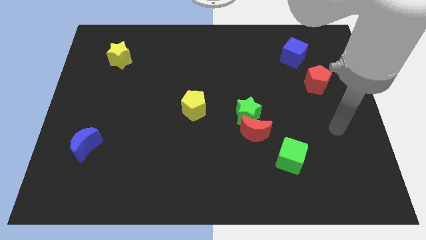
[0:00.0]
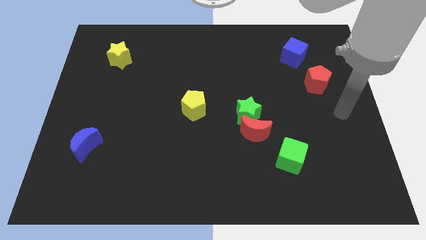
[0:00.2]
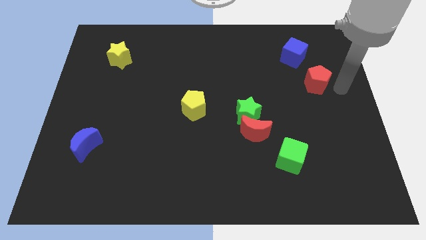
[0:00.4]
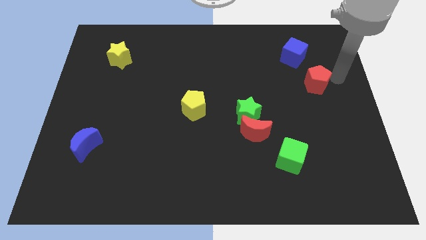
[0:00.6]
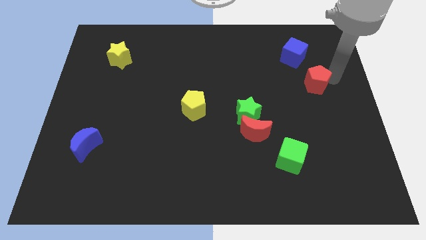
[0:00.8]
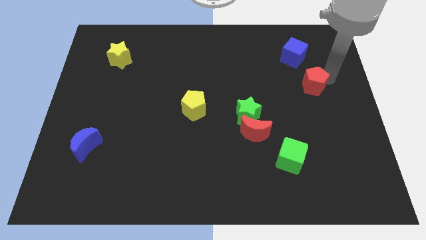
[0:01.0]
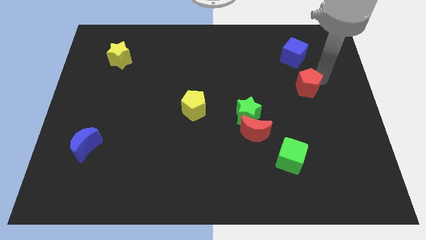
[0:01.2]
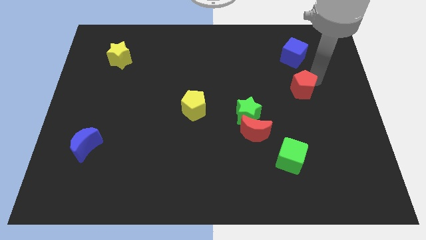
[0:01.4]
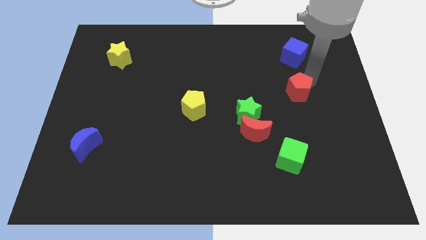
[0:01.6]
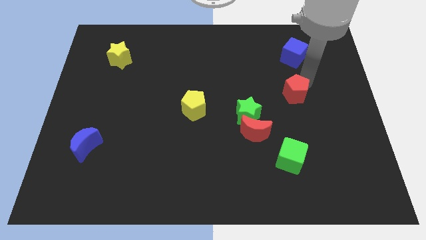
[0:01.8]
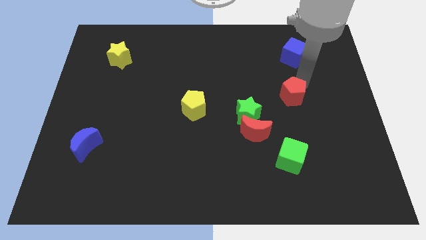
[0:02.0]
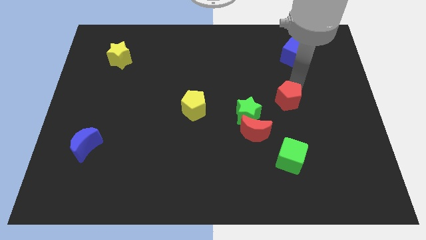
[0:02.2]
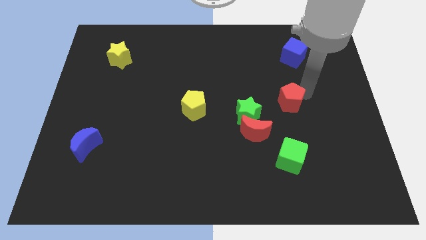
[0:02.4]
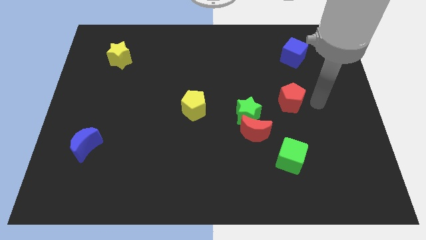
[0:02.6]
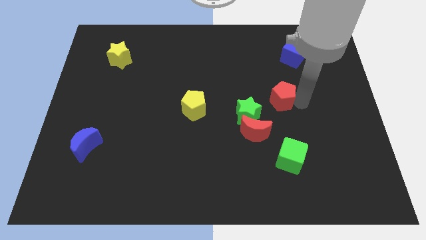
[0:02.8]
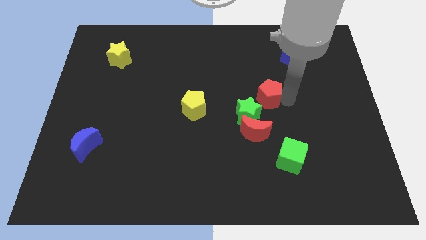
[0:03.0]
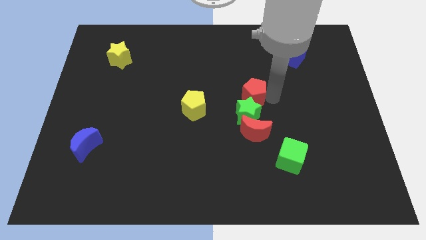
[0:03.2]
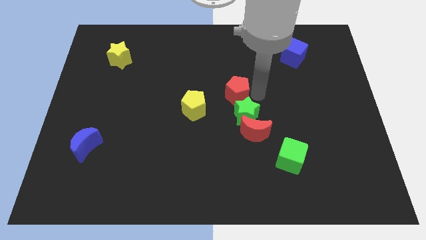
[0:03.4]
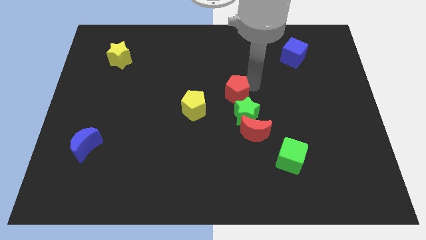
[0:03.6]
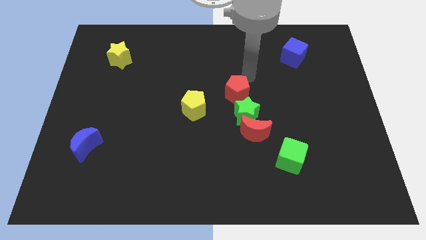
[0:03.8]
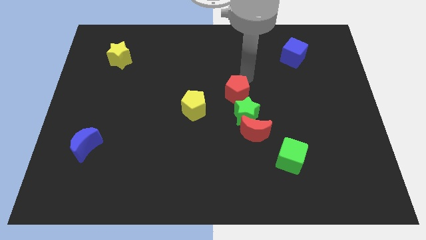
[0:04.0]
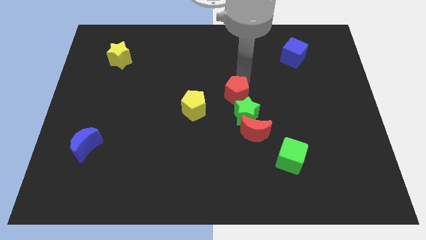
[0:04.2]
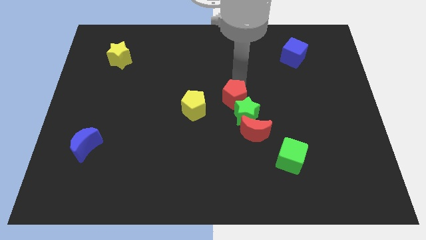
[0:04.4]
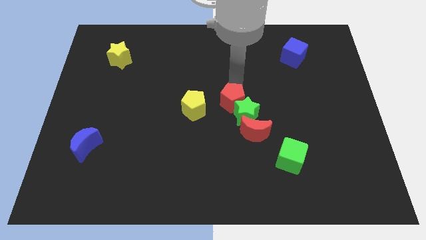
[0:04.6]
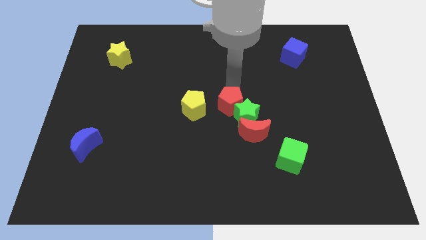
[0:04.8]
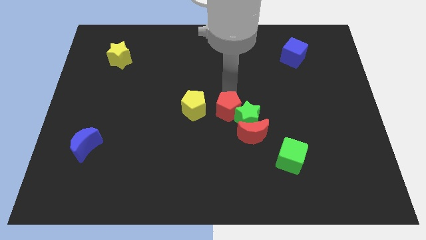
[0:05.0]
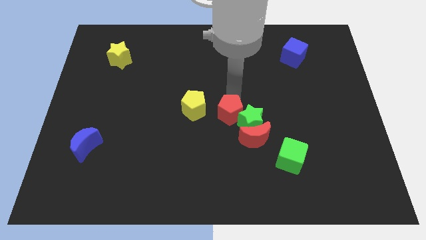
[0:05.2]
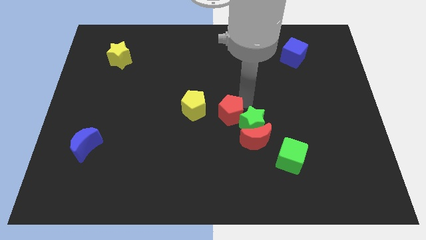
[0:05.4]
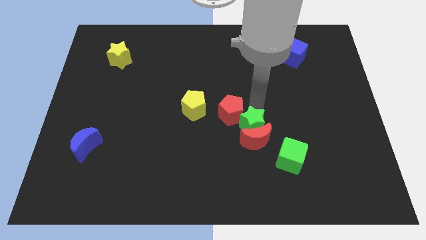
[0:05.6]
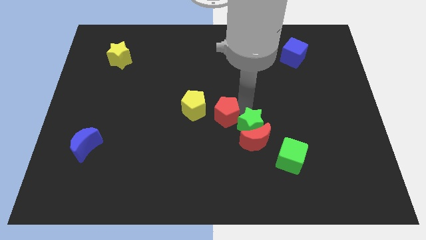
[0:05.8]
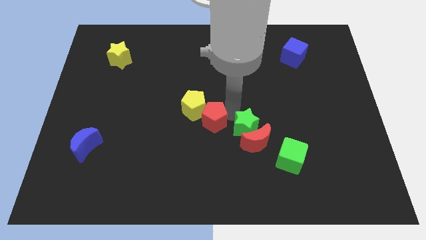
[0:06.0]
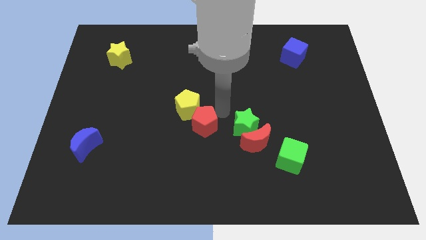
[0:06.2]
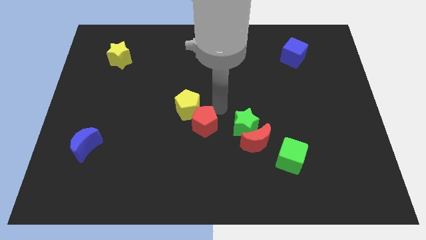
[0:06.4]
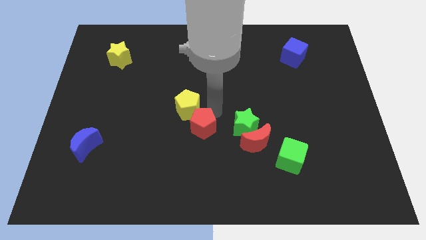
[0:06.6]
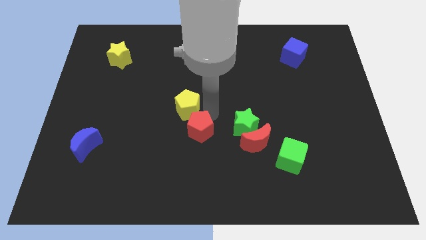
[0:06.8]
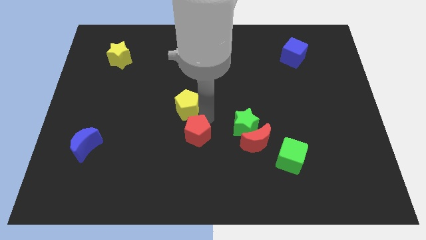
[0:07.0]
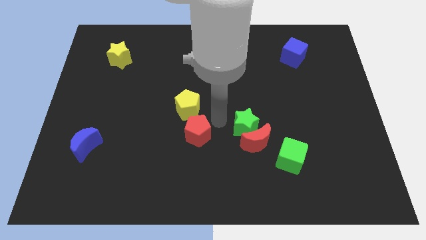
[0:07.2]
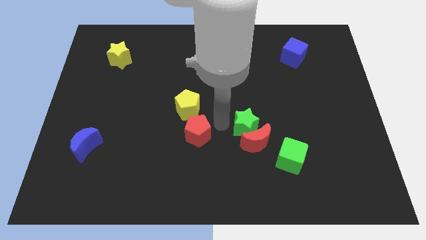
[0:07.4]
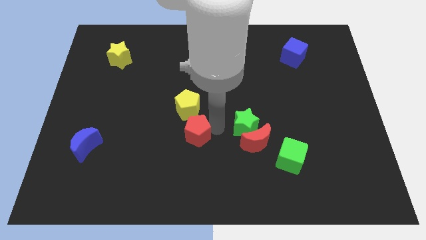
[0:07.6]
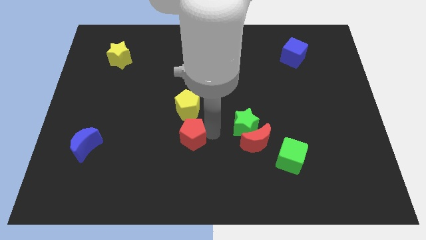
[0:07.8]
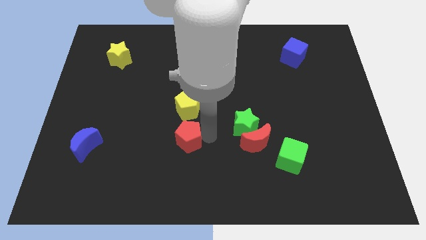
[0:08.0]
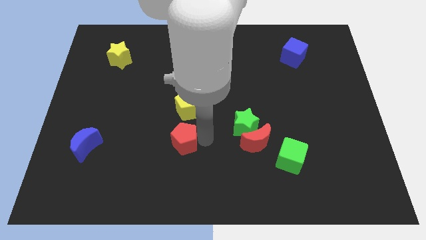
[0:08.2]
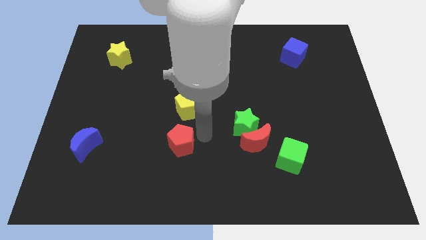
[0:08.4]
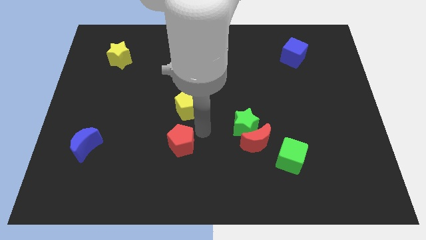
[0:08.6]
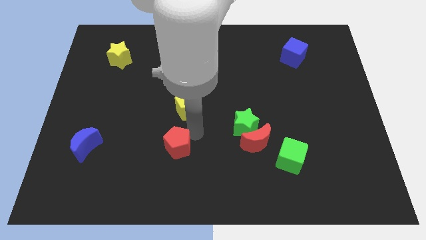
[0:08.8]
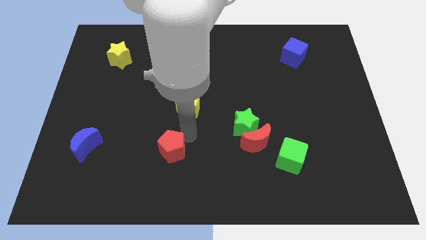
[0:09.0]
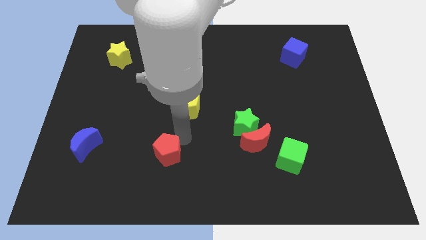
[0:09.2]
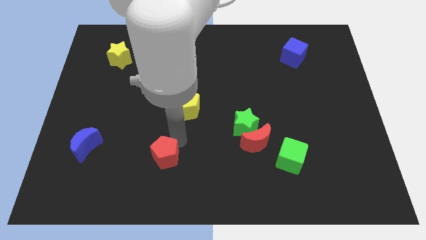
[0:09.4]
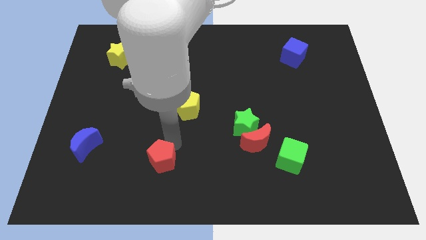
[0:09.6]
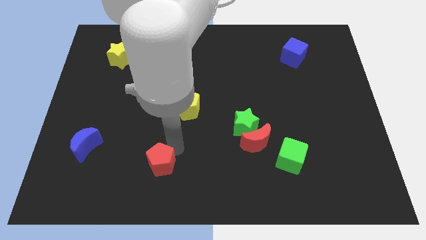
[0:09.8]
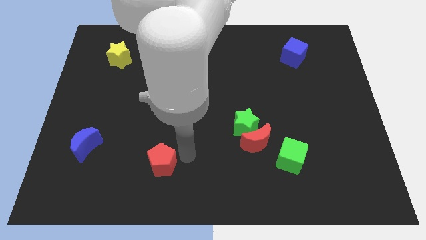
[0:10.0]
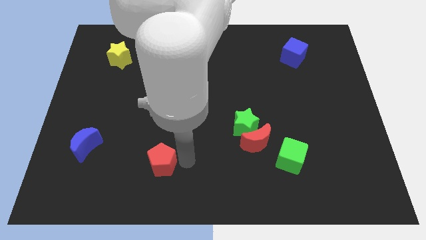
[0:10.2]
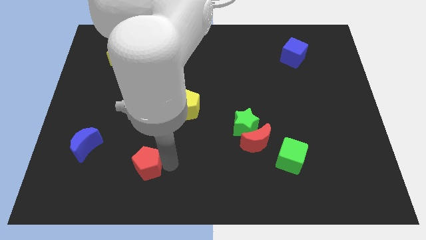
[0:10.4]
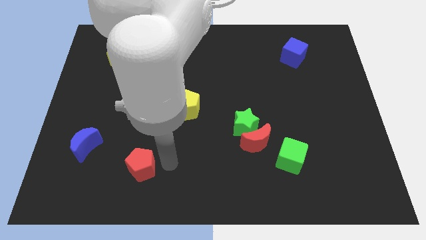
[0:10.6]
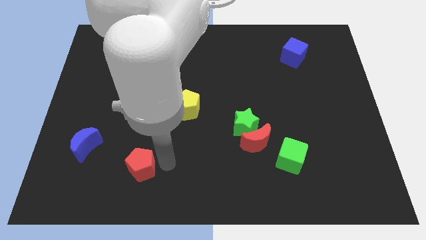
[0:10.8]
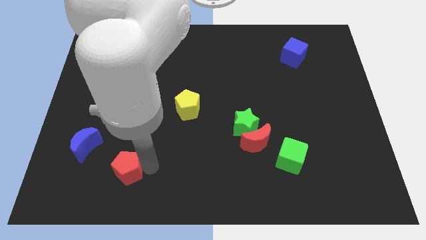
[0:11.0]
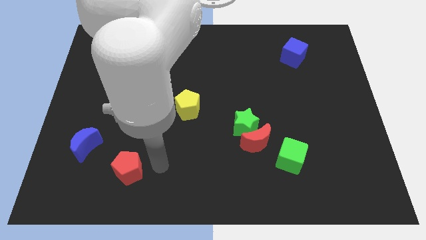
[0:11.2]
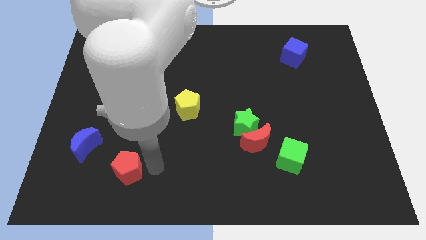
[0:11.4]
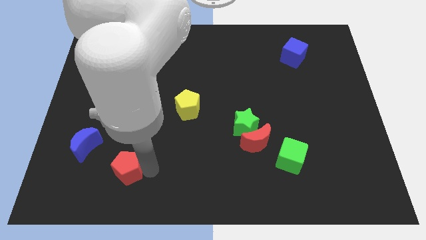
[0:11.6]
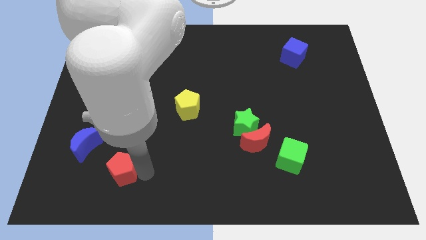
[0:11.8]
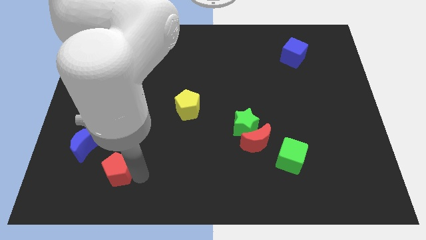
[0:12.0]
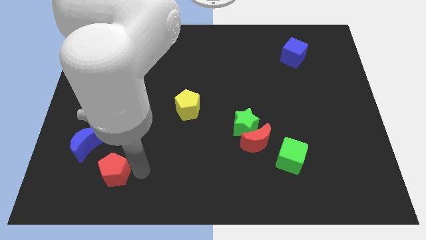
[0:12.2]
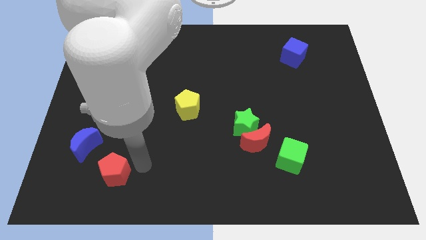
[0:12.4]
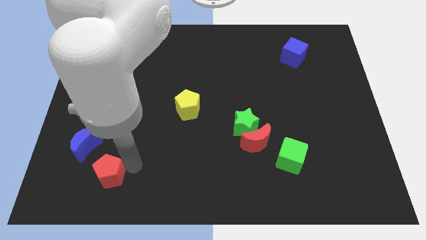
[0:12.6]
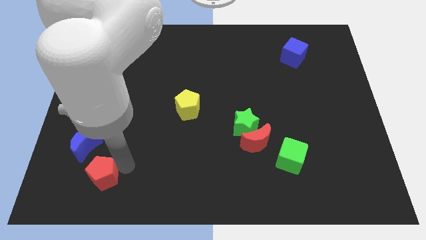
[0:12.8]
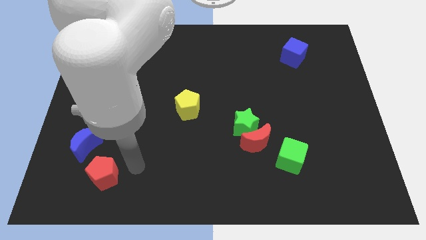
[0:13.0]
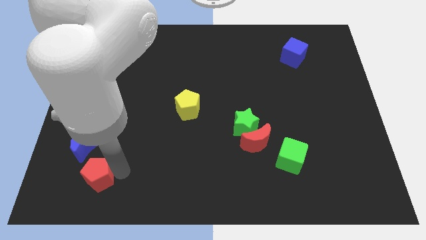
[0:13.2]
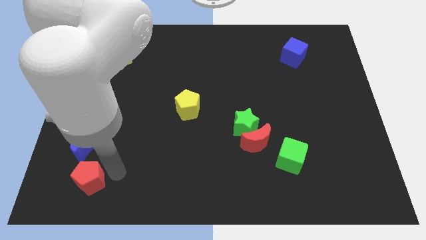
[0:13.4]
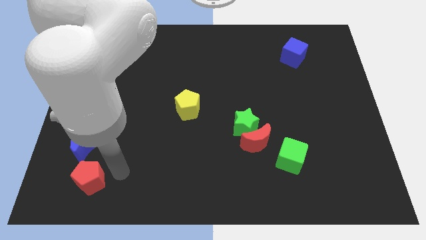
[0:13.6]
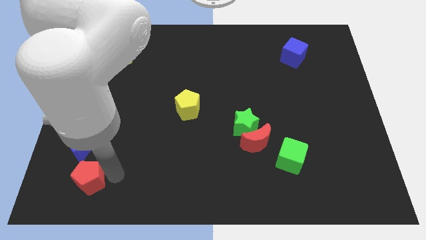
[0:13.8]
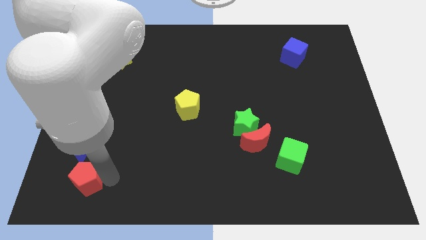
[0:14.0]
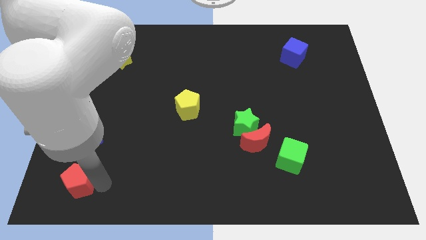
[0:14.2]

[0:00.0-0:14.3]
move the red pentagon to the bottom left of the board
